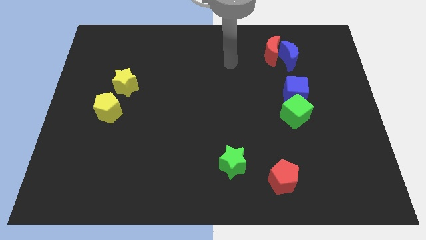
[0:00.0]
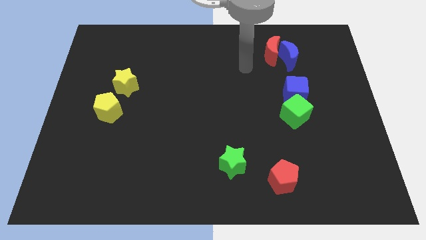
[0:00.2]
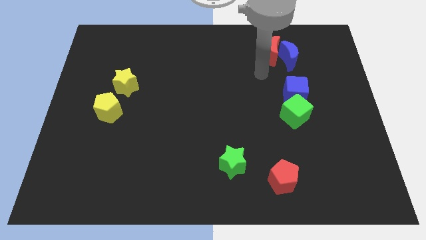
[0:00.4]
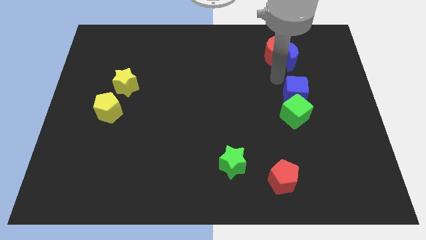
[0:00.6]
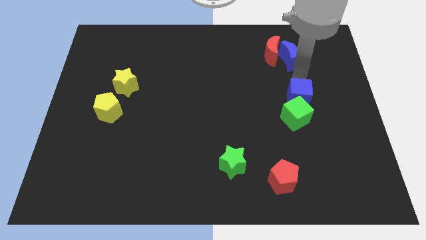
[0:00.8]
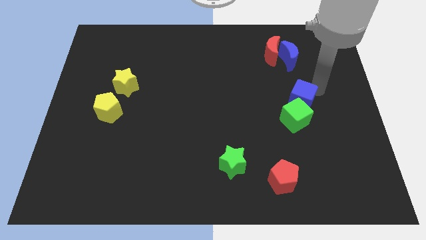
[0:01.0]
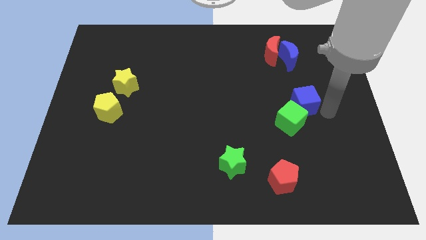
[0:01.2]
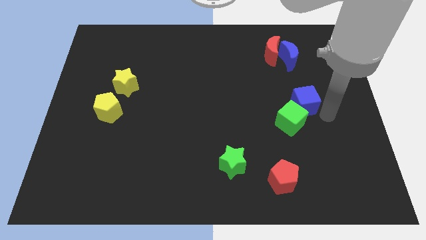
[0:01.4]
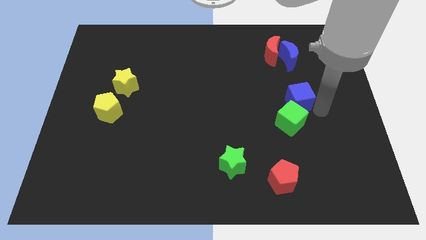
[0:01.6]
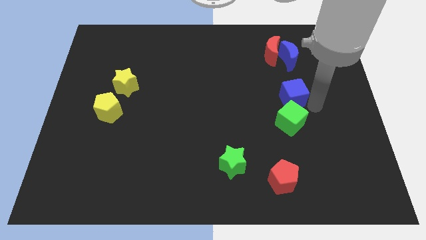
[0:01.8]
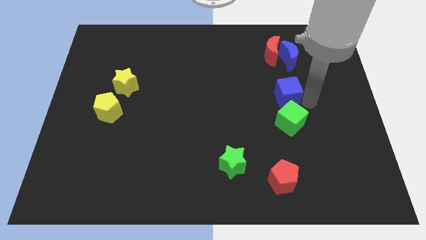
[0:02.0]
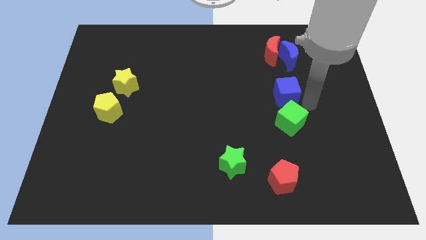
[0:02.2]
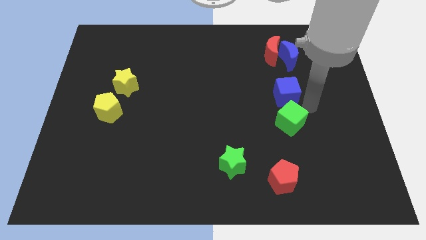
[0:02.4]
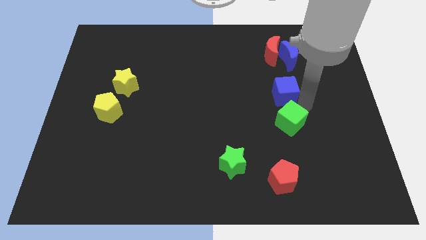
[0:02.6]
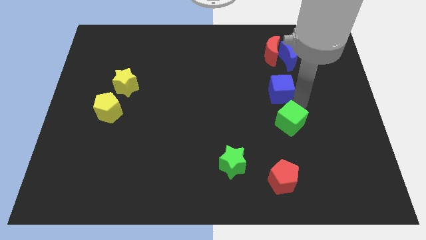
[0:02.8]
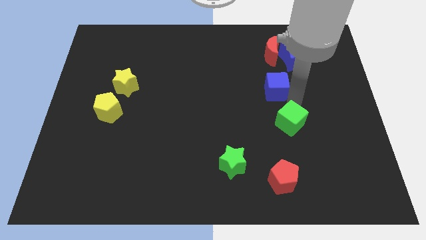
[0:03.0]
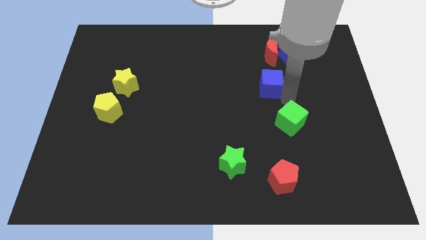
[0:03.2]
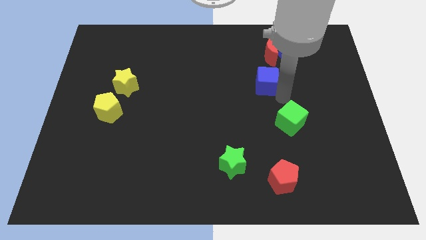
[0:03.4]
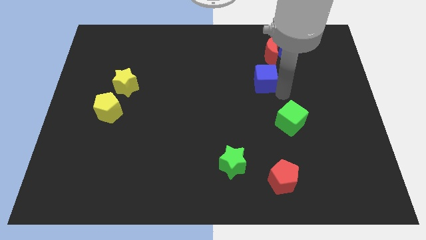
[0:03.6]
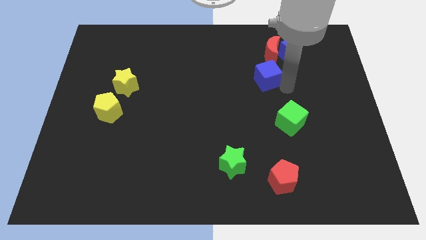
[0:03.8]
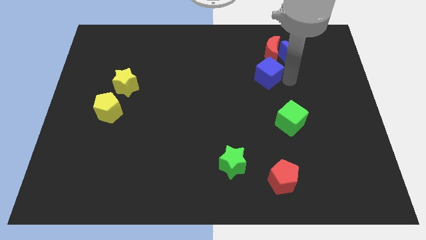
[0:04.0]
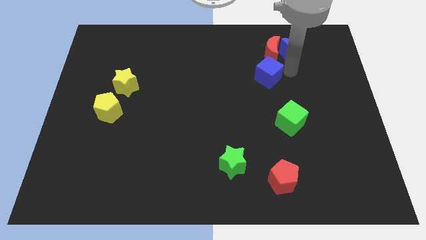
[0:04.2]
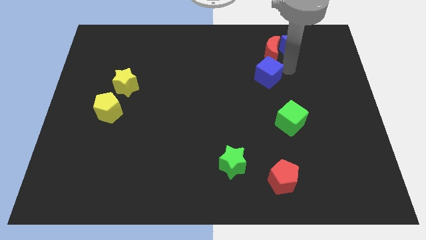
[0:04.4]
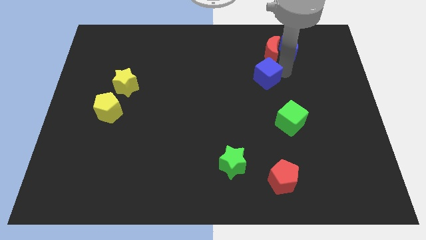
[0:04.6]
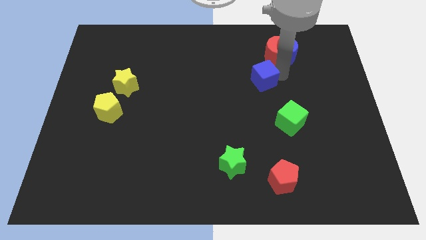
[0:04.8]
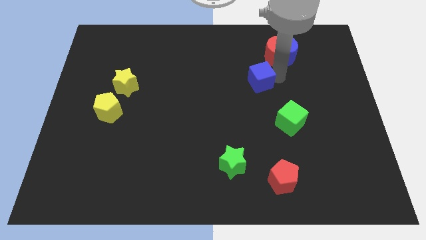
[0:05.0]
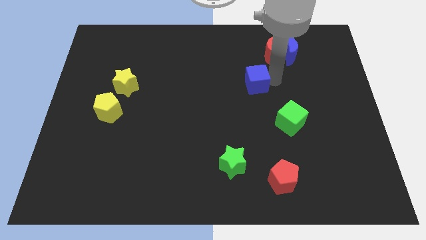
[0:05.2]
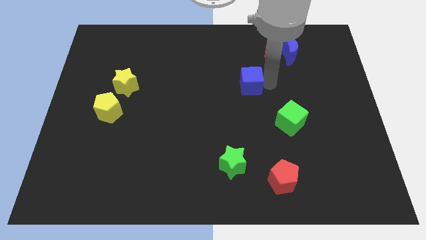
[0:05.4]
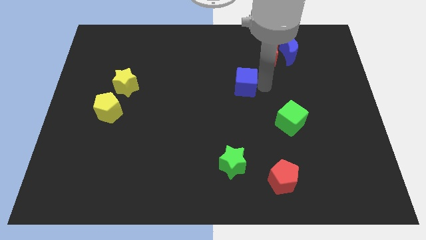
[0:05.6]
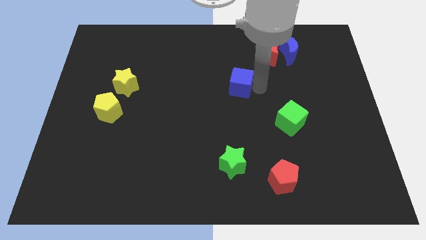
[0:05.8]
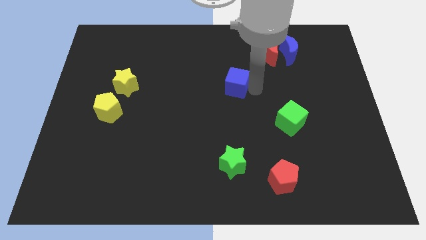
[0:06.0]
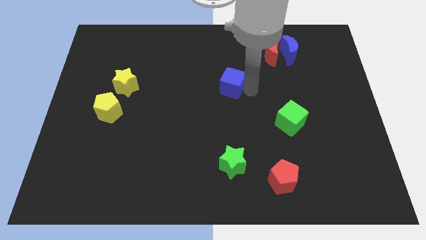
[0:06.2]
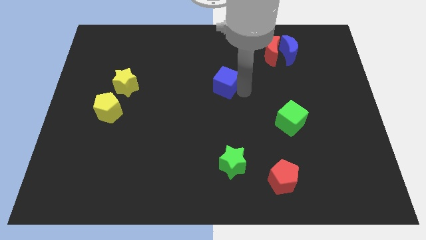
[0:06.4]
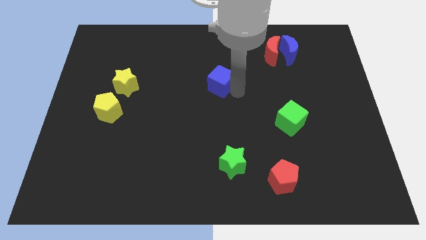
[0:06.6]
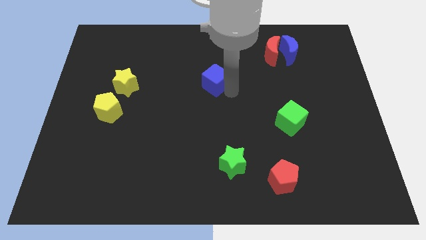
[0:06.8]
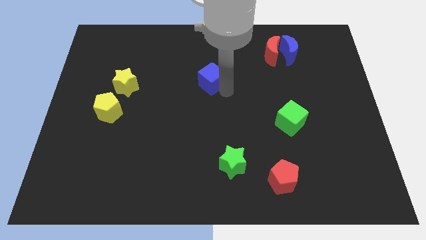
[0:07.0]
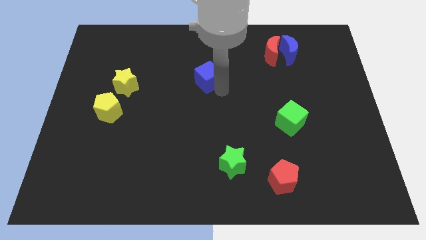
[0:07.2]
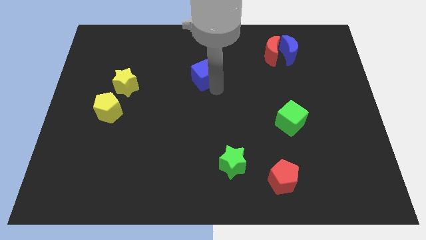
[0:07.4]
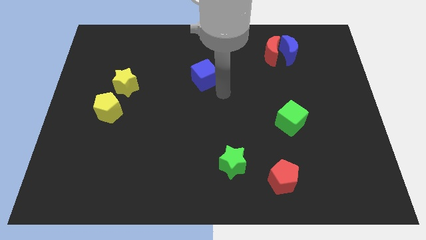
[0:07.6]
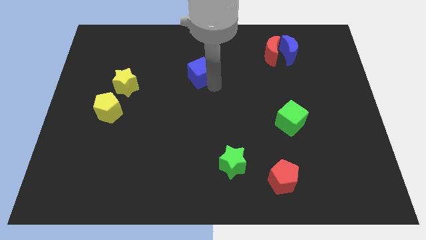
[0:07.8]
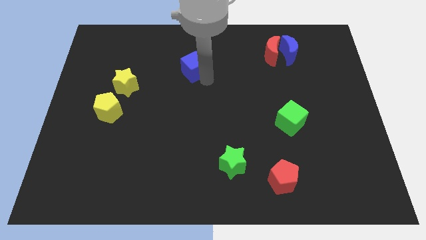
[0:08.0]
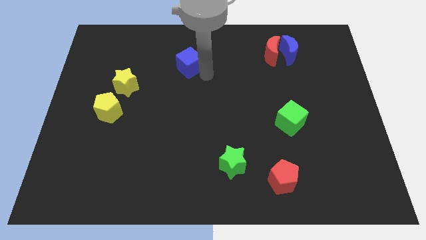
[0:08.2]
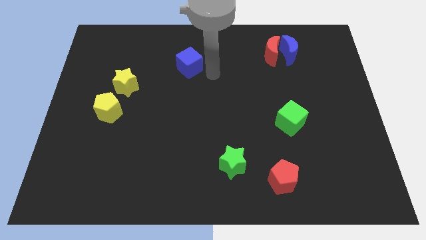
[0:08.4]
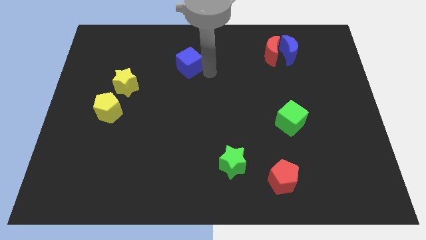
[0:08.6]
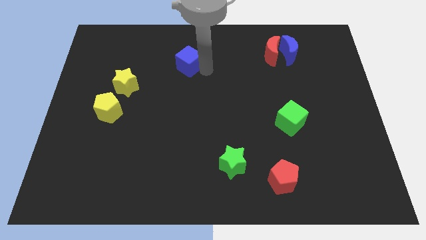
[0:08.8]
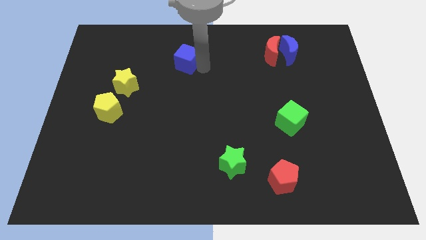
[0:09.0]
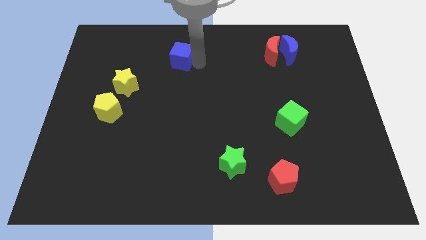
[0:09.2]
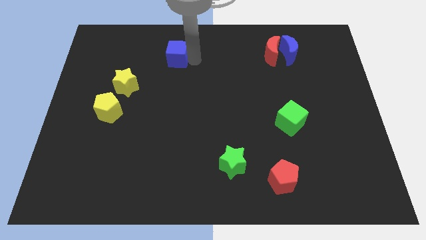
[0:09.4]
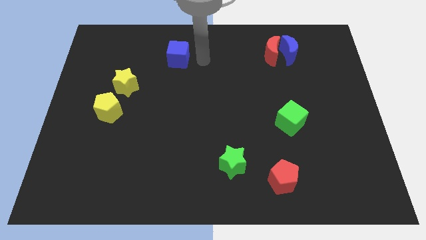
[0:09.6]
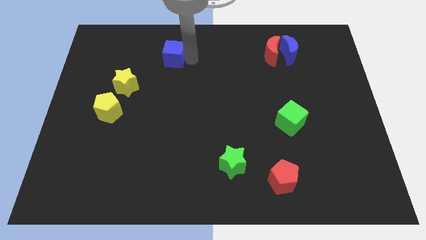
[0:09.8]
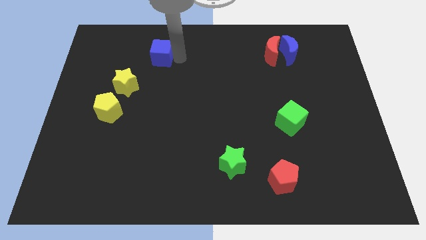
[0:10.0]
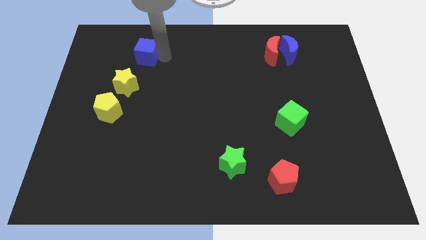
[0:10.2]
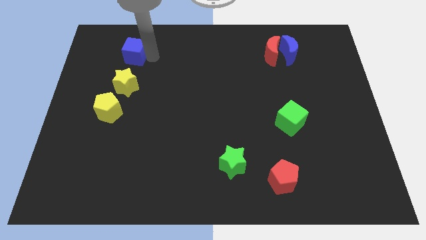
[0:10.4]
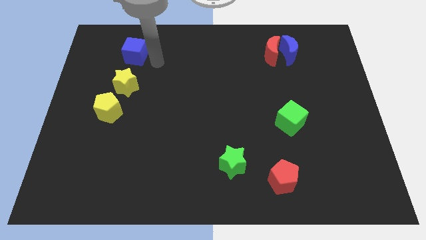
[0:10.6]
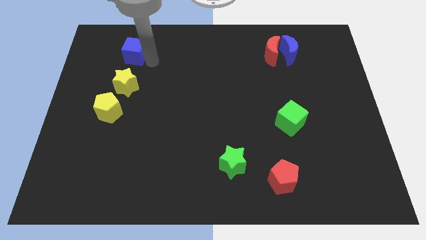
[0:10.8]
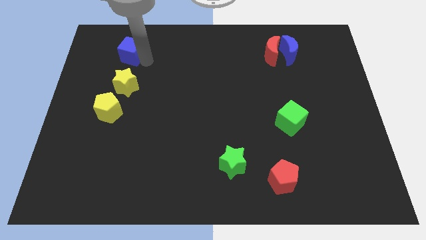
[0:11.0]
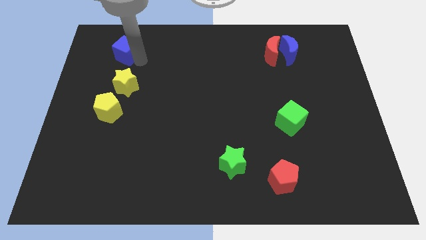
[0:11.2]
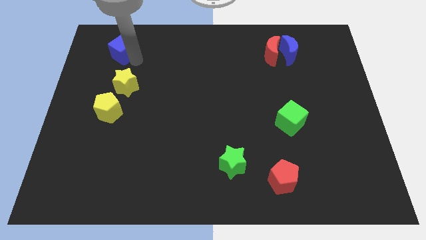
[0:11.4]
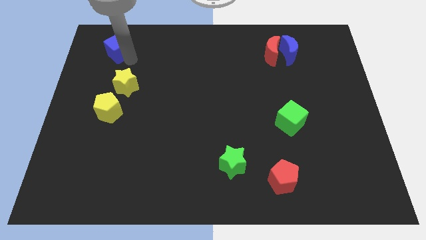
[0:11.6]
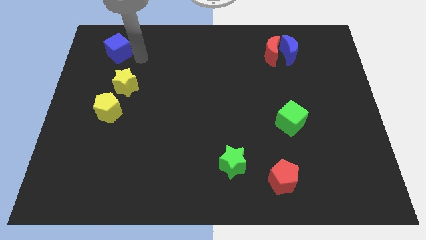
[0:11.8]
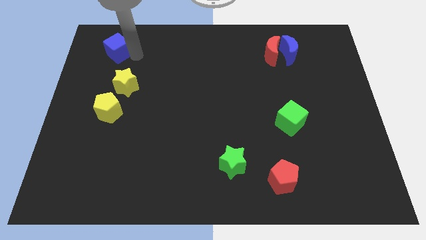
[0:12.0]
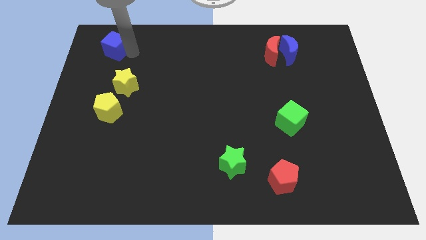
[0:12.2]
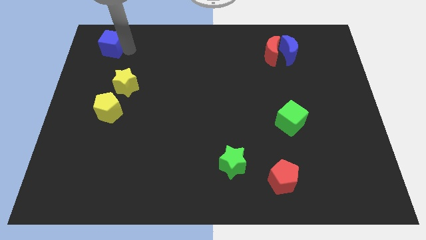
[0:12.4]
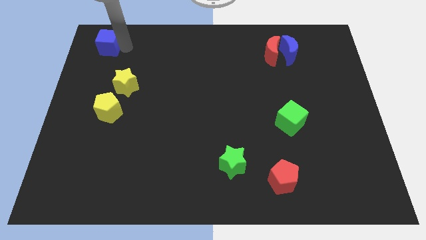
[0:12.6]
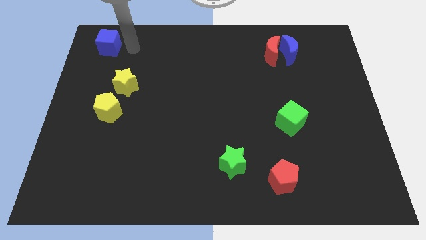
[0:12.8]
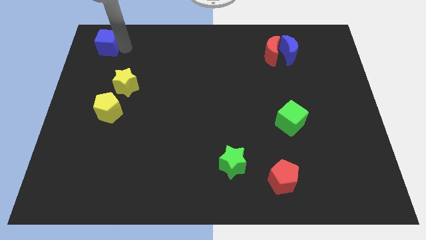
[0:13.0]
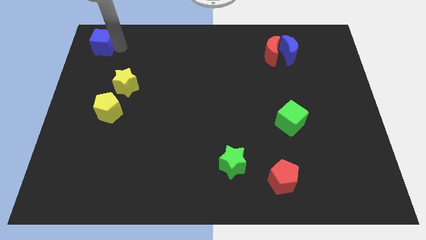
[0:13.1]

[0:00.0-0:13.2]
put the blue cube to the upper left corner

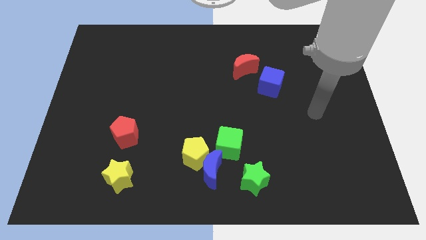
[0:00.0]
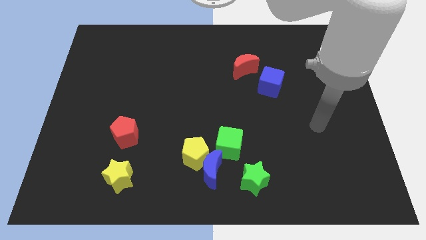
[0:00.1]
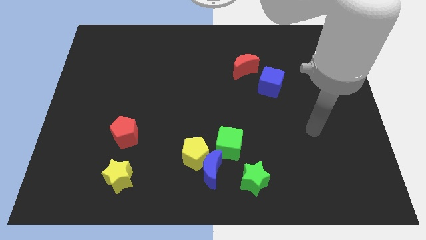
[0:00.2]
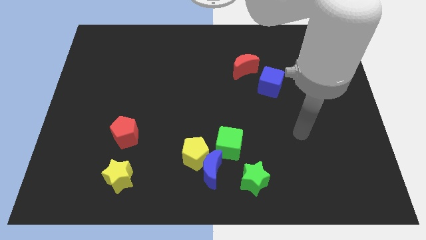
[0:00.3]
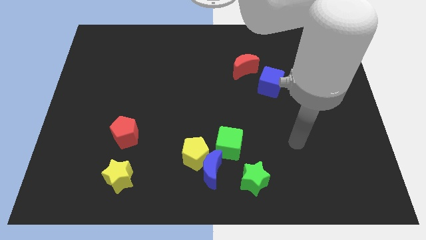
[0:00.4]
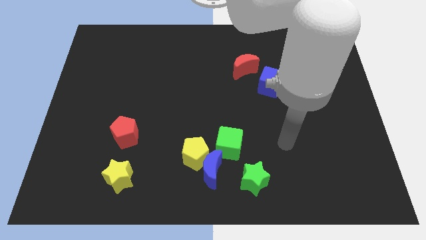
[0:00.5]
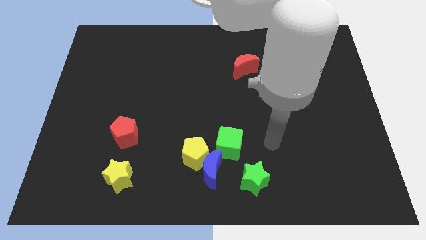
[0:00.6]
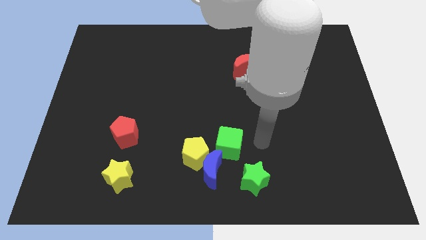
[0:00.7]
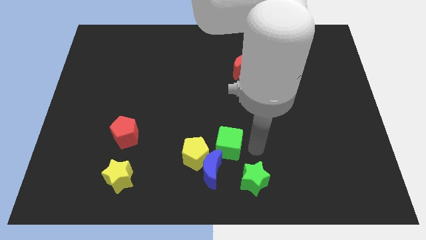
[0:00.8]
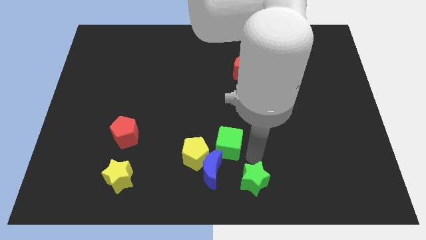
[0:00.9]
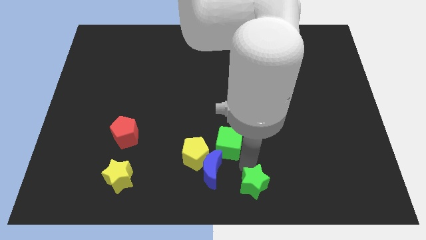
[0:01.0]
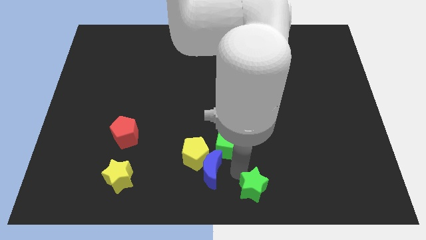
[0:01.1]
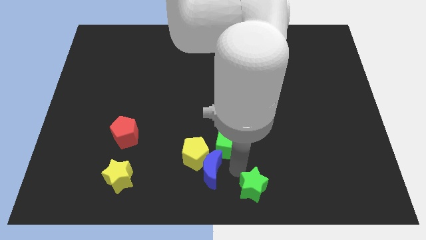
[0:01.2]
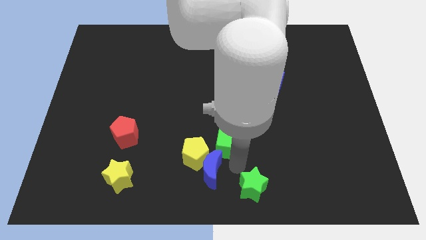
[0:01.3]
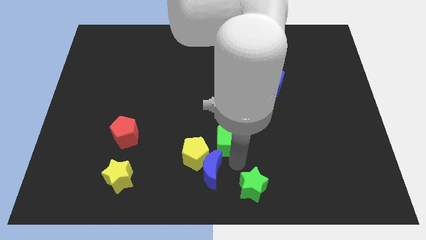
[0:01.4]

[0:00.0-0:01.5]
slide the green cube to the center
